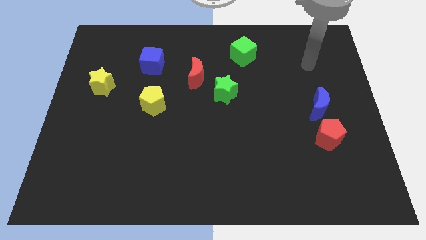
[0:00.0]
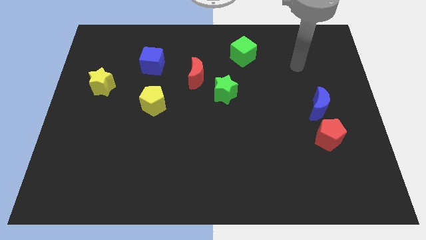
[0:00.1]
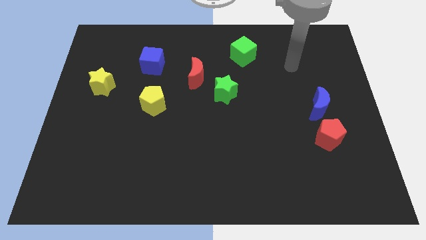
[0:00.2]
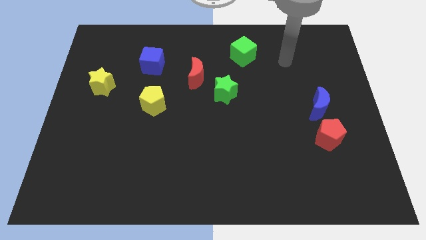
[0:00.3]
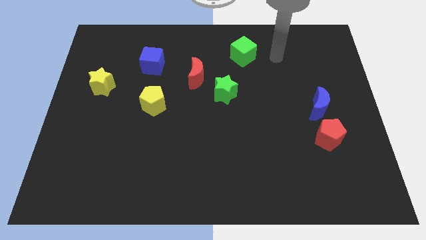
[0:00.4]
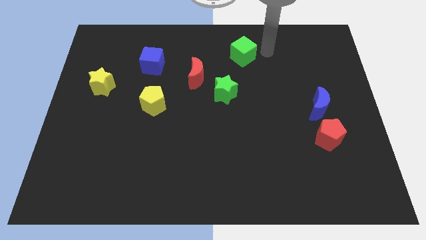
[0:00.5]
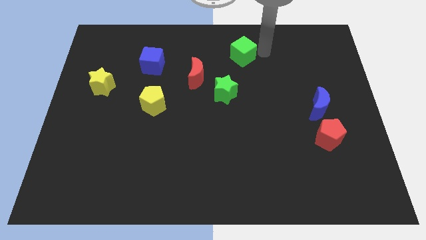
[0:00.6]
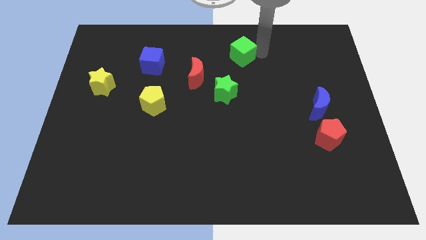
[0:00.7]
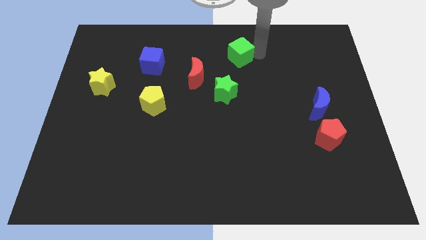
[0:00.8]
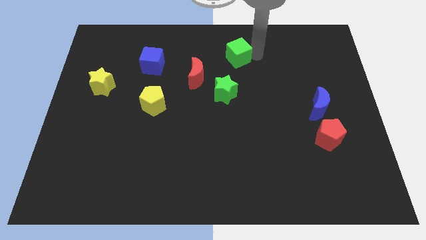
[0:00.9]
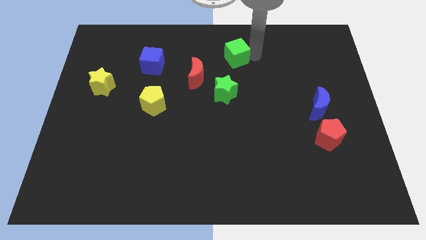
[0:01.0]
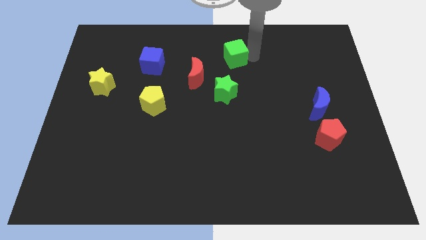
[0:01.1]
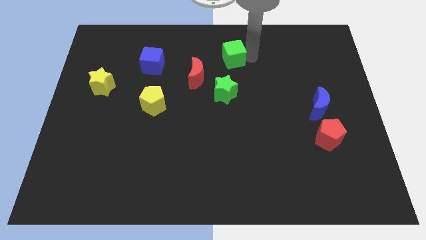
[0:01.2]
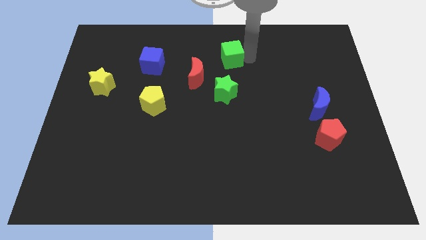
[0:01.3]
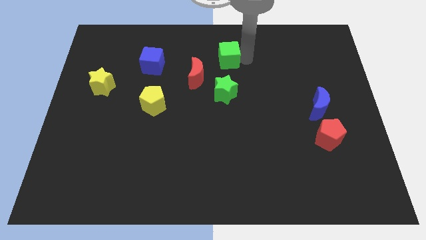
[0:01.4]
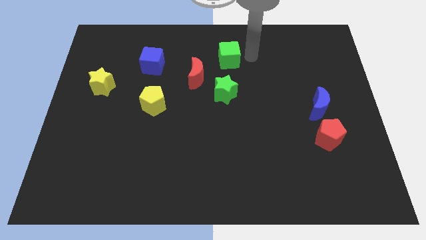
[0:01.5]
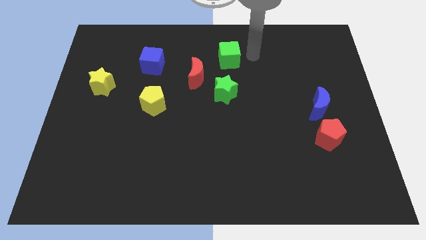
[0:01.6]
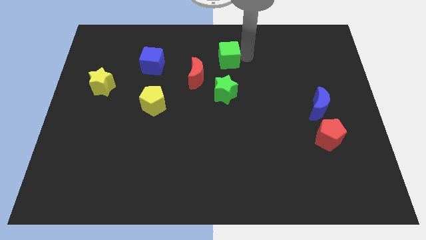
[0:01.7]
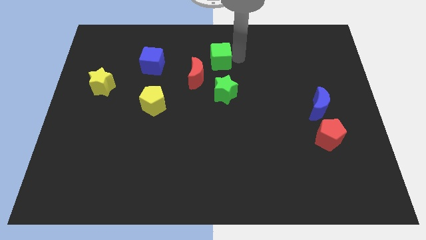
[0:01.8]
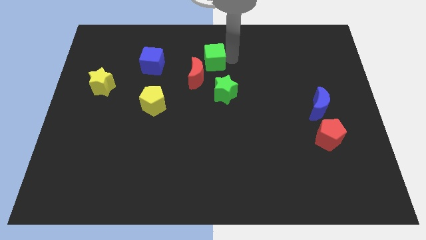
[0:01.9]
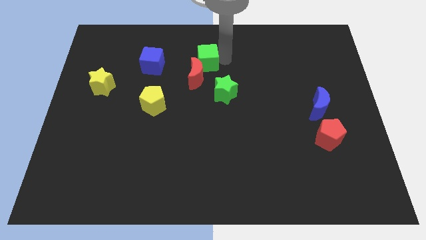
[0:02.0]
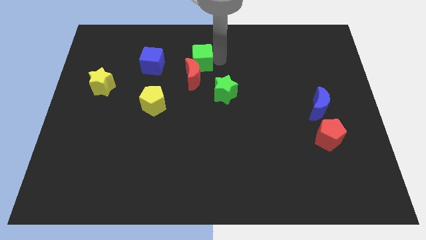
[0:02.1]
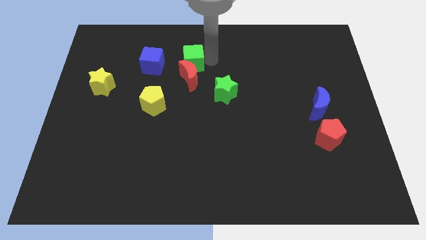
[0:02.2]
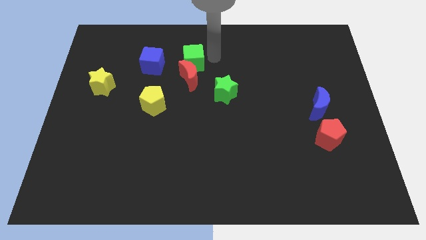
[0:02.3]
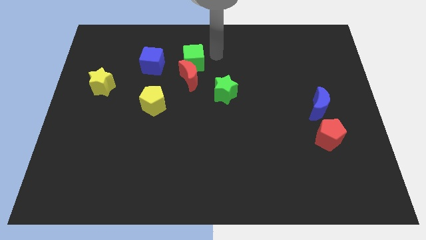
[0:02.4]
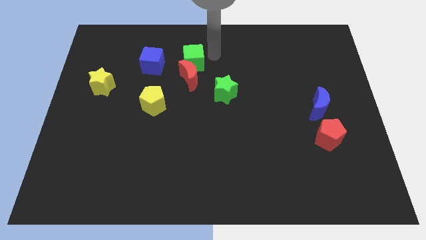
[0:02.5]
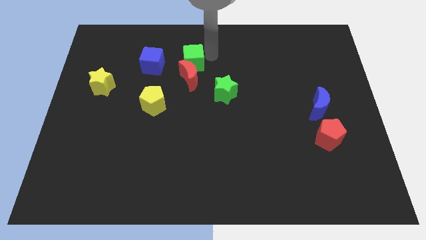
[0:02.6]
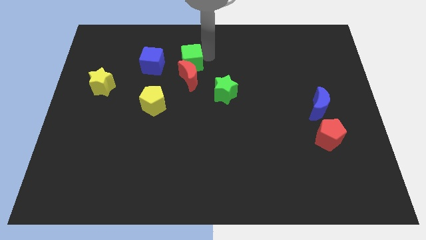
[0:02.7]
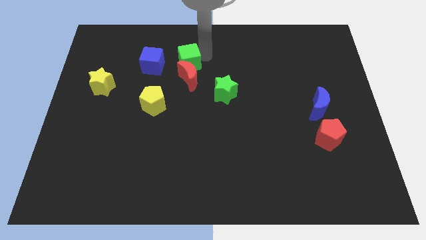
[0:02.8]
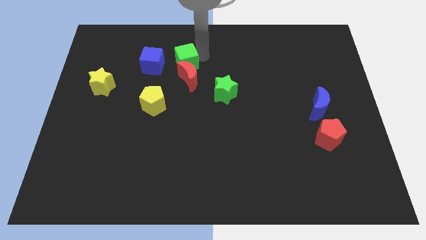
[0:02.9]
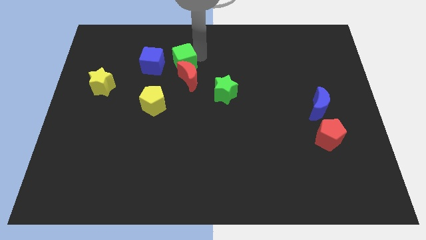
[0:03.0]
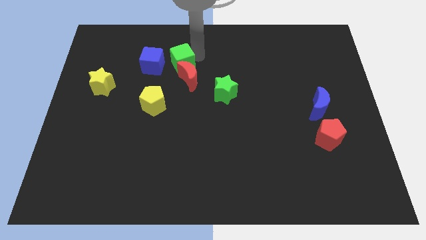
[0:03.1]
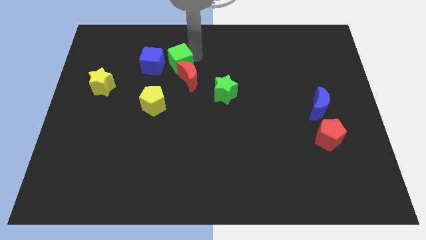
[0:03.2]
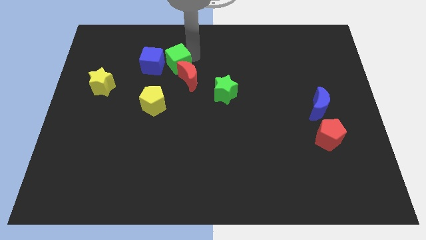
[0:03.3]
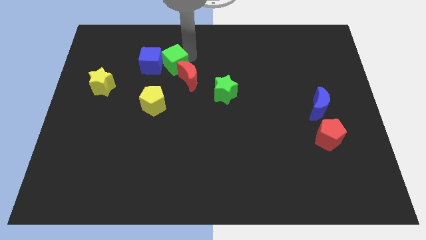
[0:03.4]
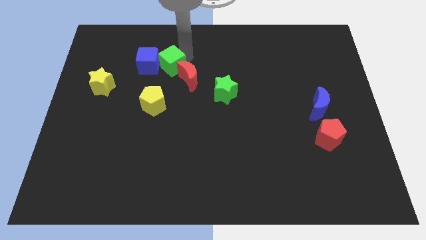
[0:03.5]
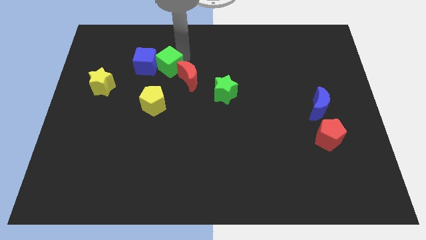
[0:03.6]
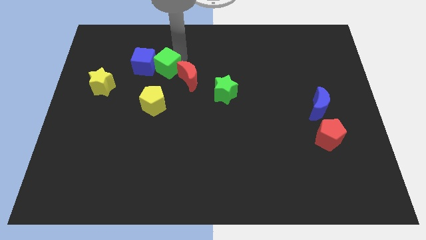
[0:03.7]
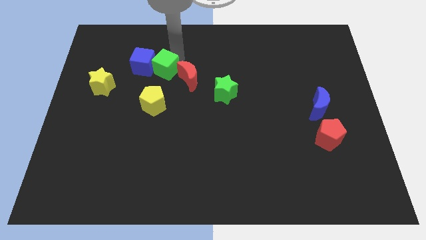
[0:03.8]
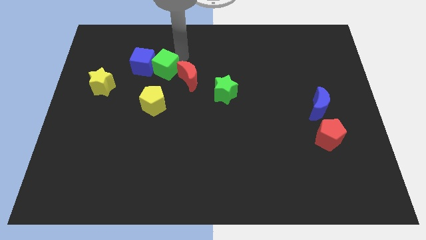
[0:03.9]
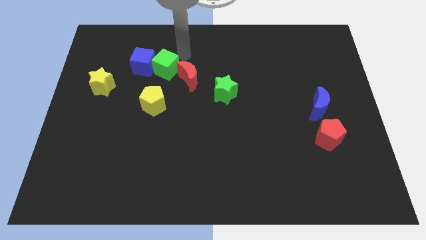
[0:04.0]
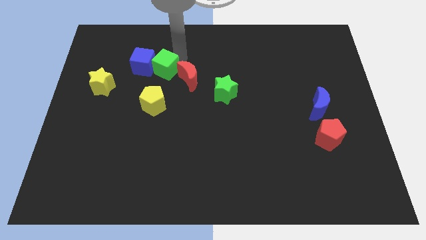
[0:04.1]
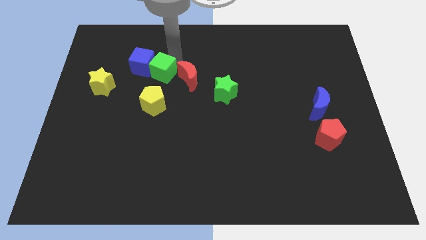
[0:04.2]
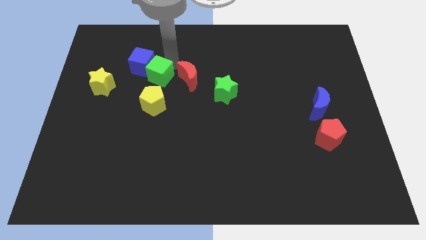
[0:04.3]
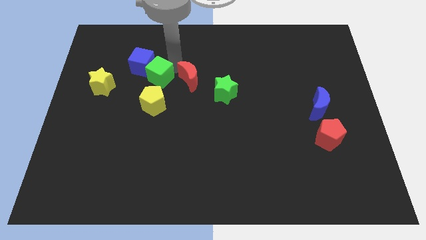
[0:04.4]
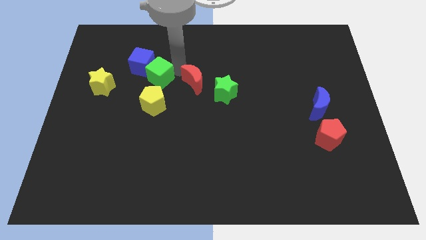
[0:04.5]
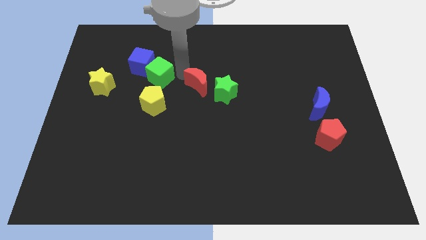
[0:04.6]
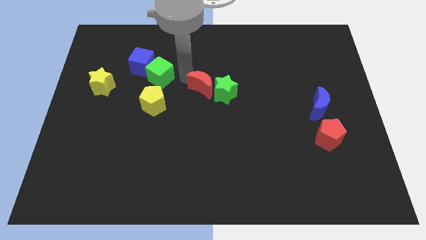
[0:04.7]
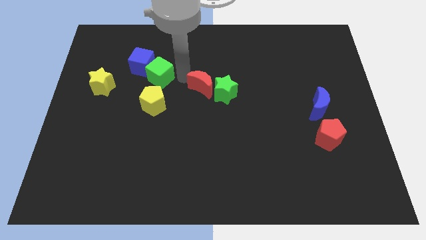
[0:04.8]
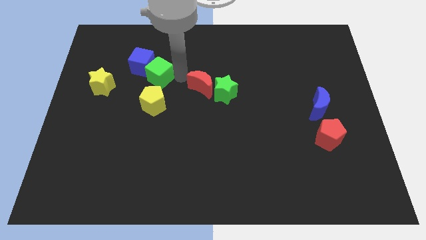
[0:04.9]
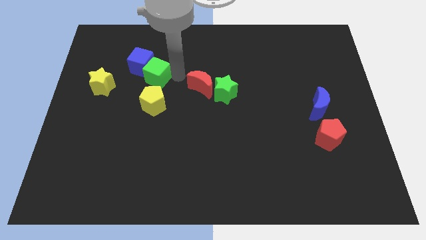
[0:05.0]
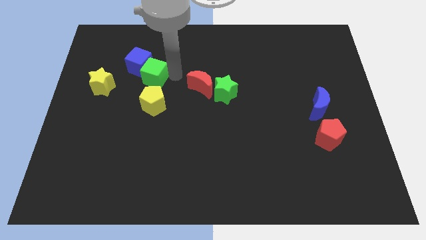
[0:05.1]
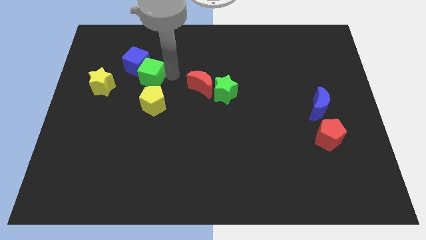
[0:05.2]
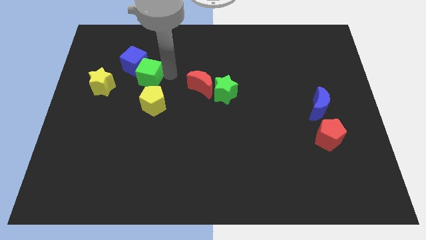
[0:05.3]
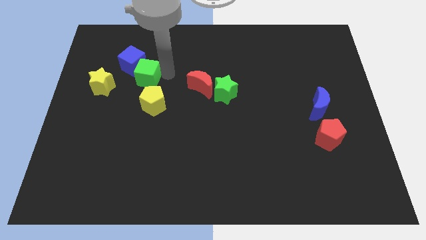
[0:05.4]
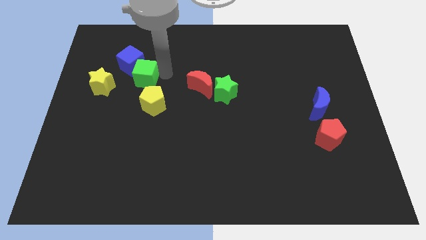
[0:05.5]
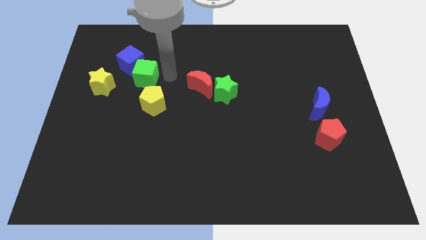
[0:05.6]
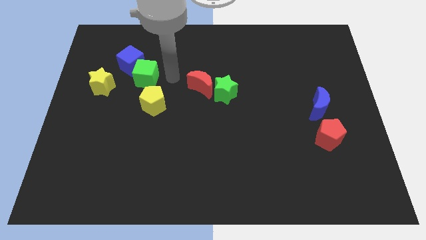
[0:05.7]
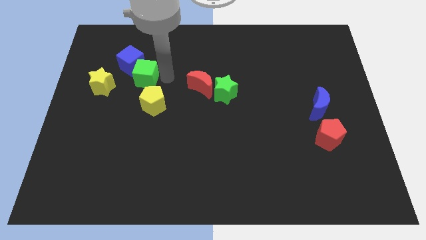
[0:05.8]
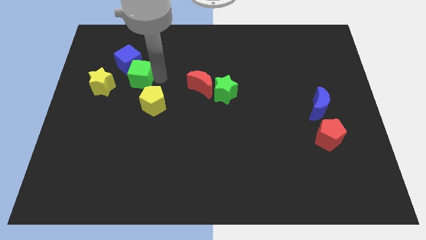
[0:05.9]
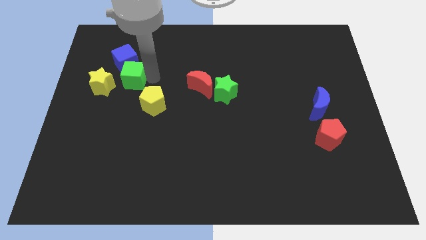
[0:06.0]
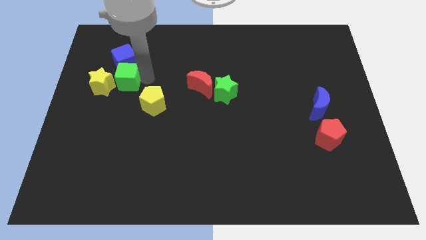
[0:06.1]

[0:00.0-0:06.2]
move the green cube to the yellow star

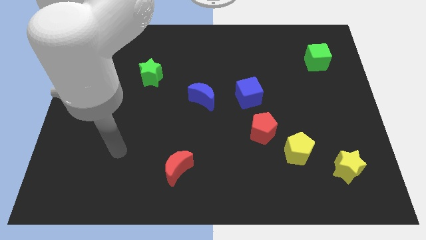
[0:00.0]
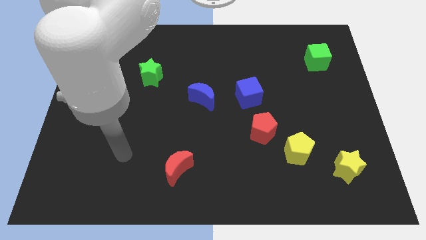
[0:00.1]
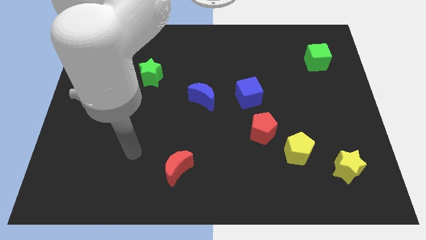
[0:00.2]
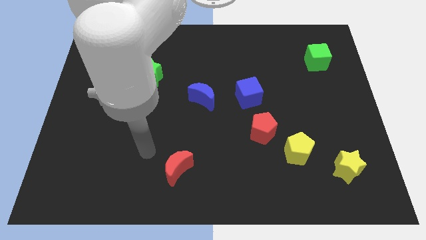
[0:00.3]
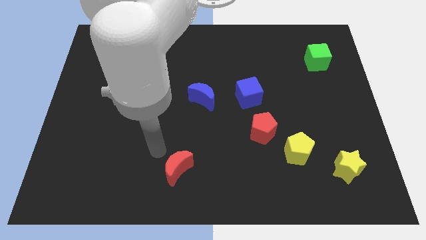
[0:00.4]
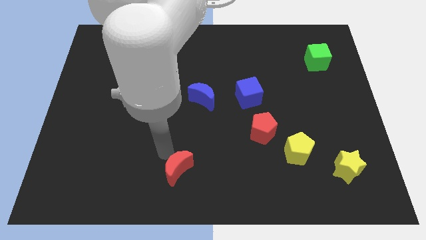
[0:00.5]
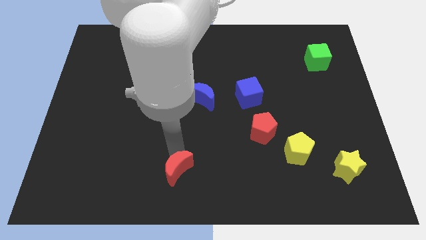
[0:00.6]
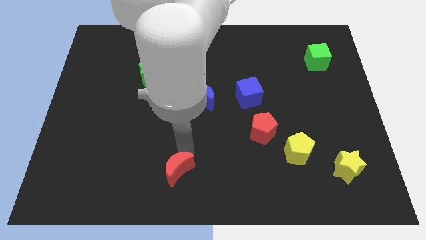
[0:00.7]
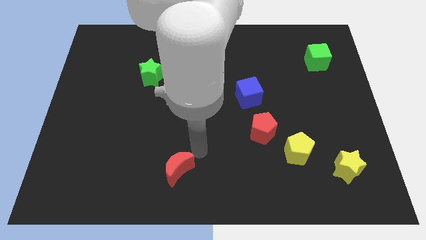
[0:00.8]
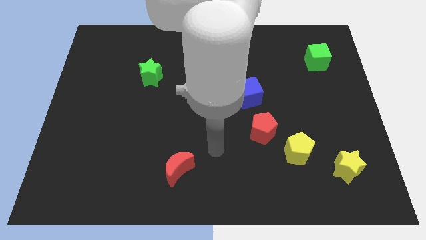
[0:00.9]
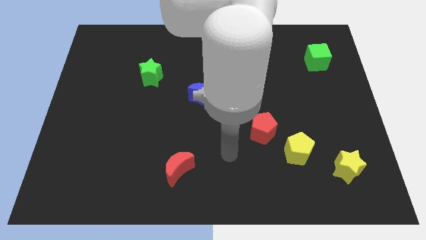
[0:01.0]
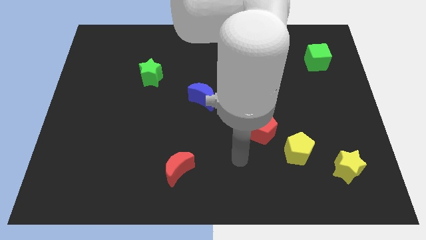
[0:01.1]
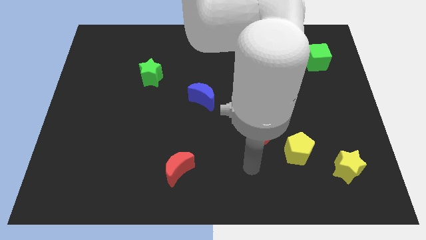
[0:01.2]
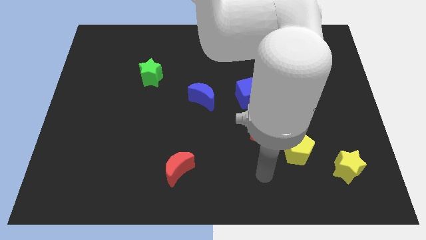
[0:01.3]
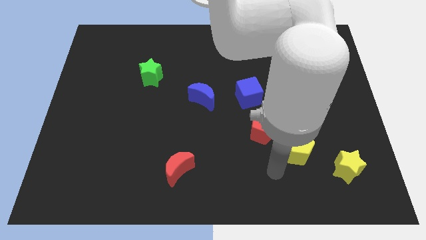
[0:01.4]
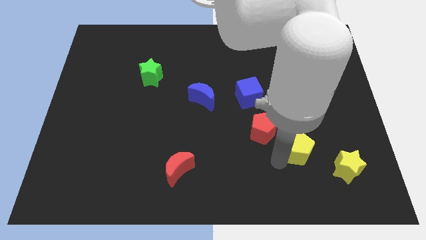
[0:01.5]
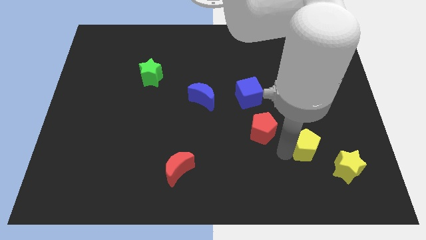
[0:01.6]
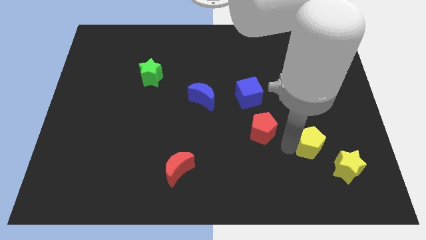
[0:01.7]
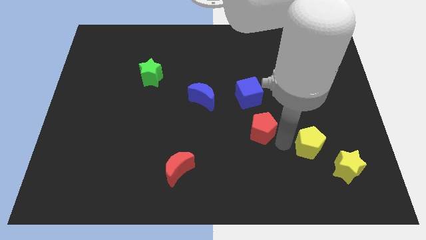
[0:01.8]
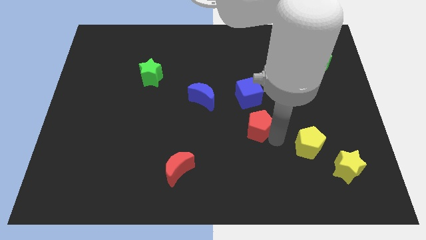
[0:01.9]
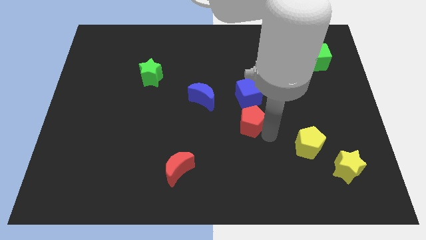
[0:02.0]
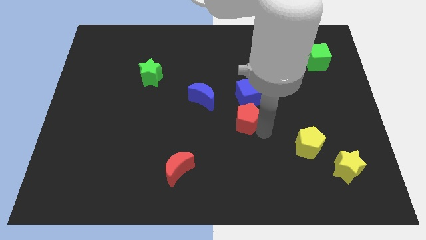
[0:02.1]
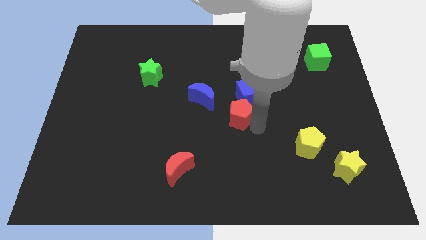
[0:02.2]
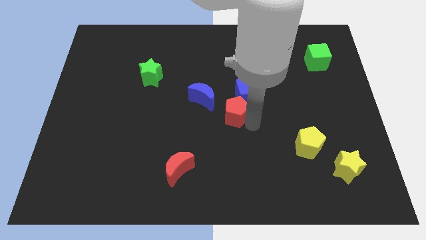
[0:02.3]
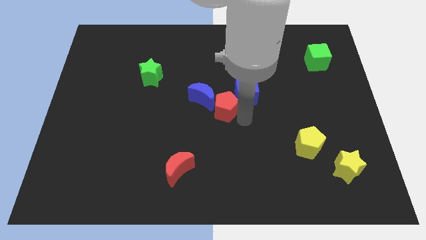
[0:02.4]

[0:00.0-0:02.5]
move the red pentagon next to the blue moon
